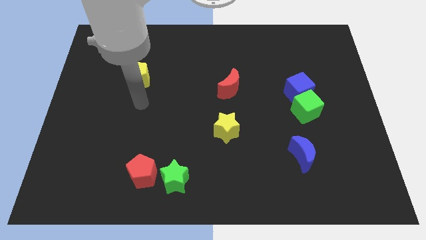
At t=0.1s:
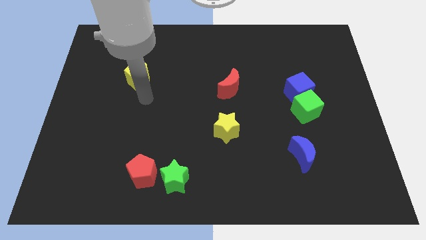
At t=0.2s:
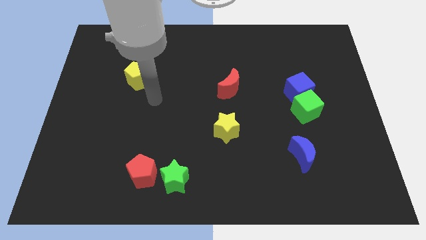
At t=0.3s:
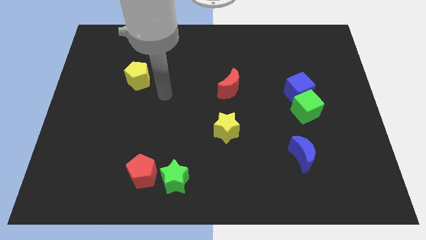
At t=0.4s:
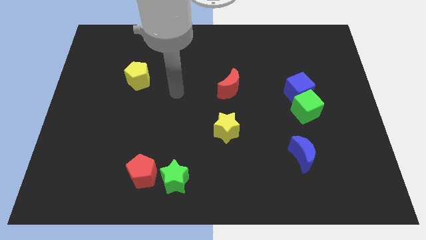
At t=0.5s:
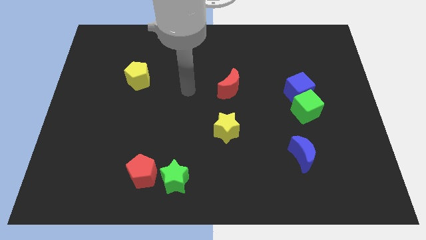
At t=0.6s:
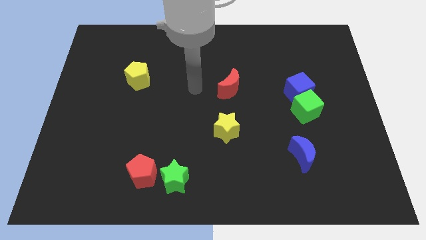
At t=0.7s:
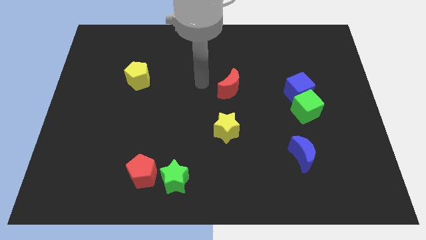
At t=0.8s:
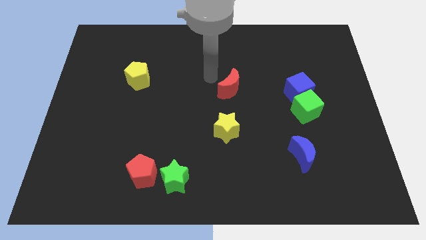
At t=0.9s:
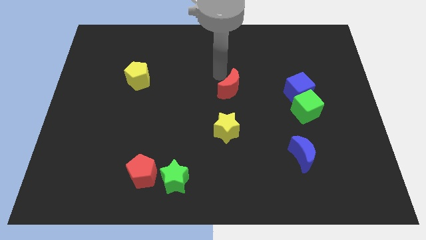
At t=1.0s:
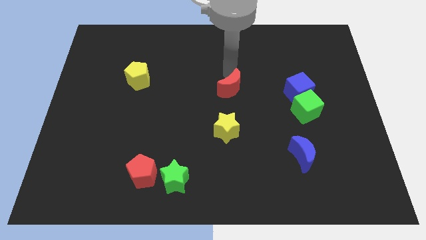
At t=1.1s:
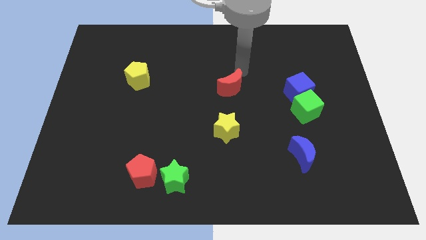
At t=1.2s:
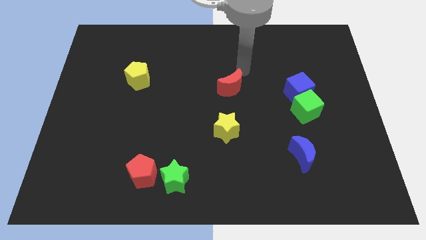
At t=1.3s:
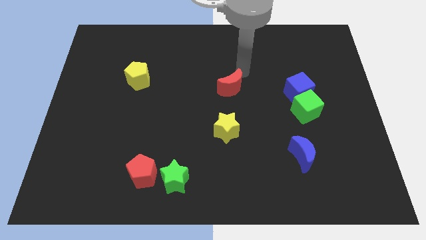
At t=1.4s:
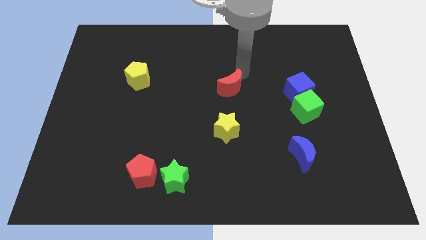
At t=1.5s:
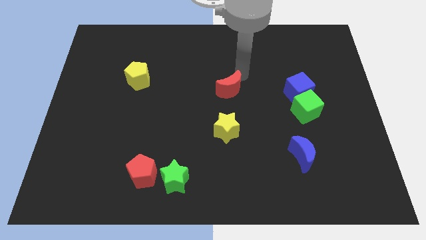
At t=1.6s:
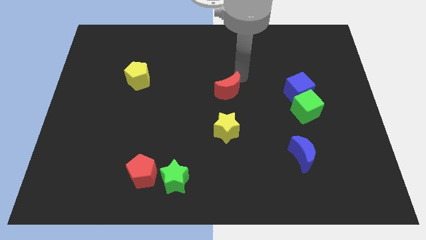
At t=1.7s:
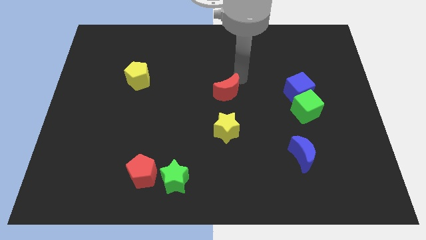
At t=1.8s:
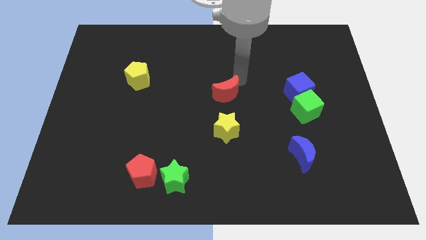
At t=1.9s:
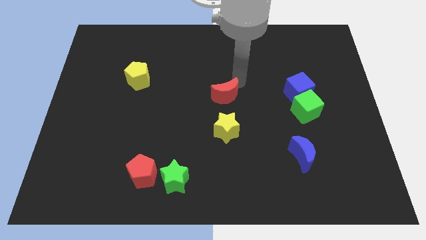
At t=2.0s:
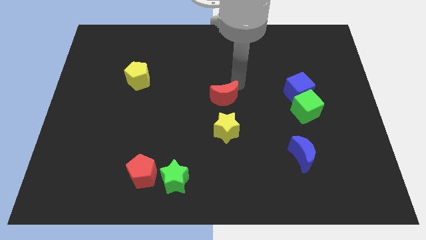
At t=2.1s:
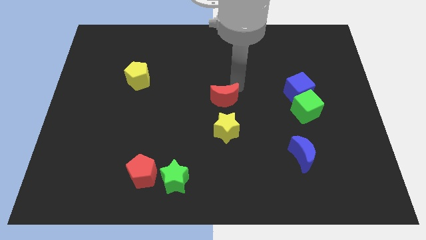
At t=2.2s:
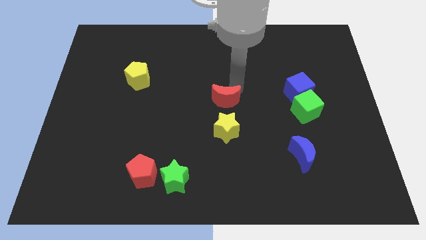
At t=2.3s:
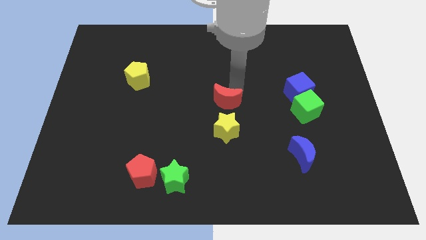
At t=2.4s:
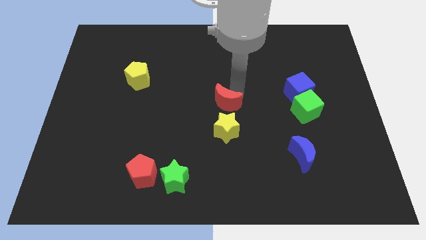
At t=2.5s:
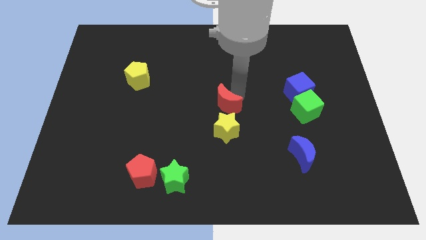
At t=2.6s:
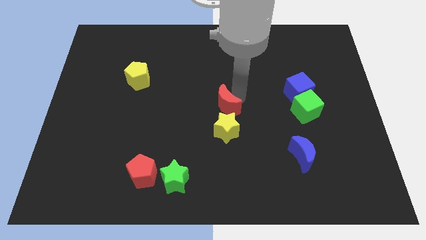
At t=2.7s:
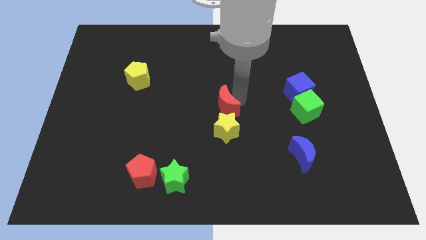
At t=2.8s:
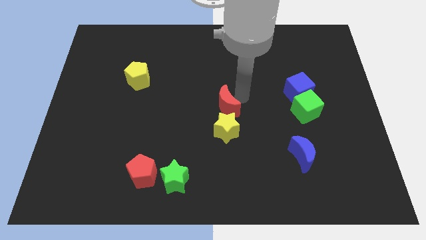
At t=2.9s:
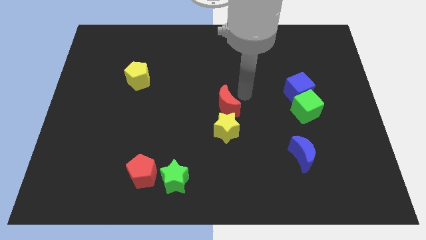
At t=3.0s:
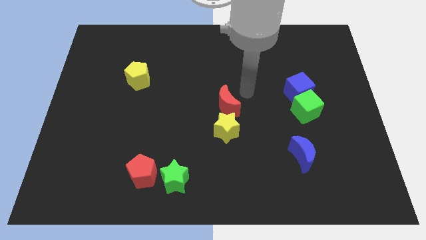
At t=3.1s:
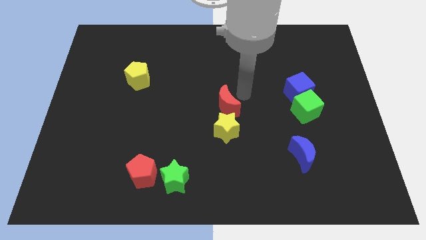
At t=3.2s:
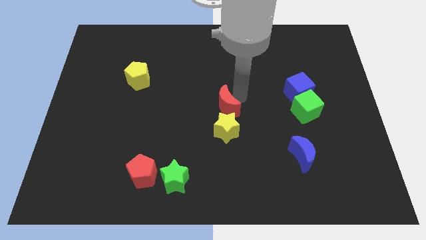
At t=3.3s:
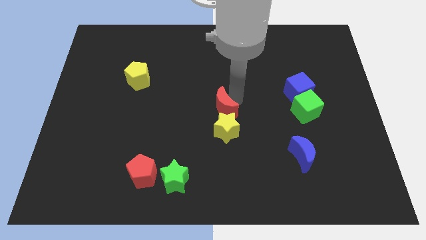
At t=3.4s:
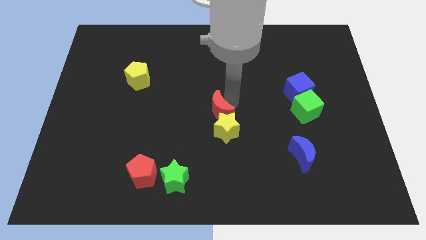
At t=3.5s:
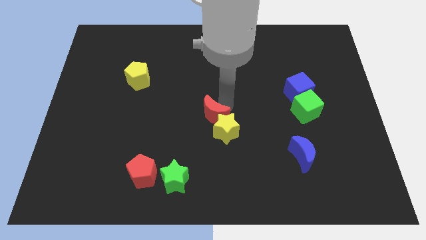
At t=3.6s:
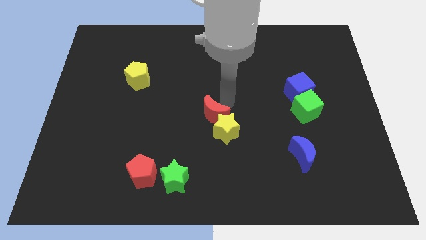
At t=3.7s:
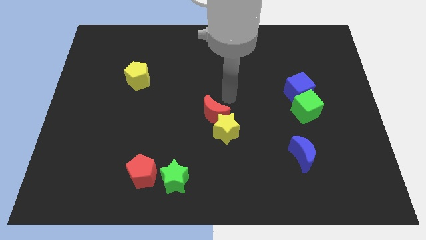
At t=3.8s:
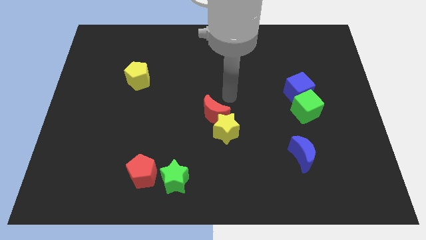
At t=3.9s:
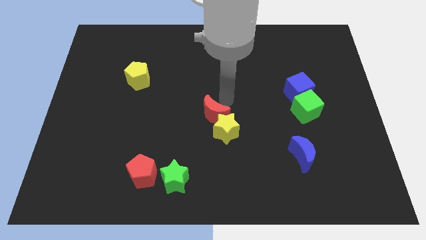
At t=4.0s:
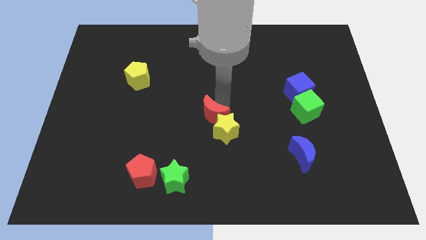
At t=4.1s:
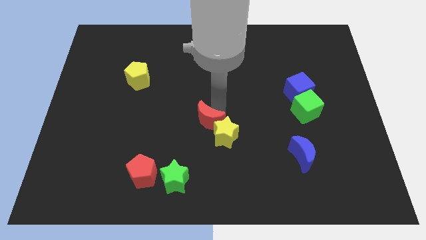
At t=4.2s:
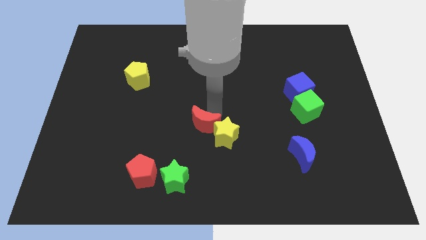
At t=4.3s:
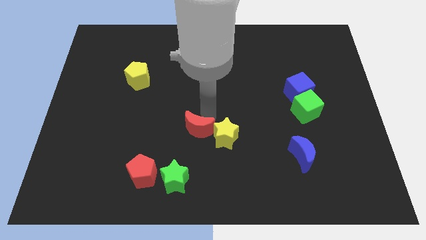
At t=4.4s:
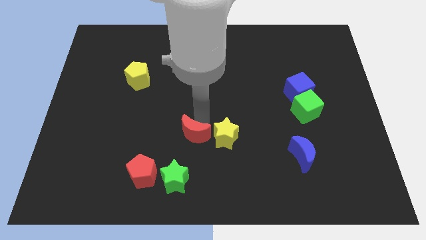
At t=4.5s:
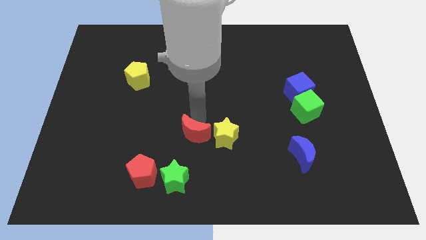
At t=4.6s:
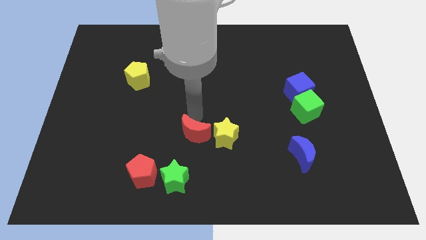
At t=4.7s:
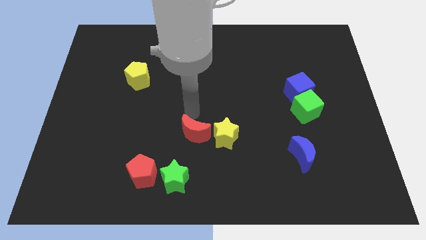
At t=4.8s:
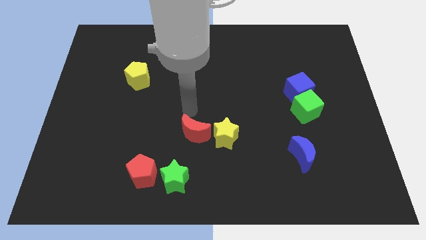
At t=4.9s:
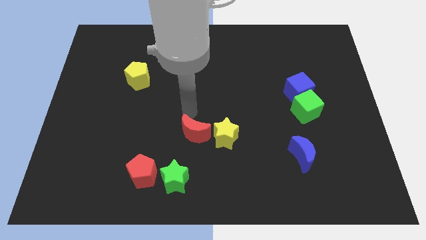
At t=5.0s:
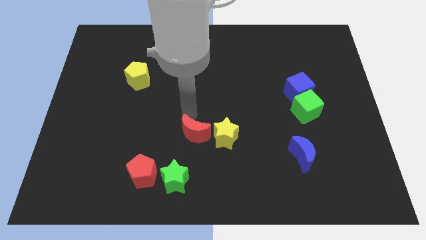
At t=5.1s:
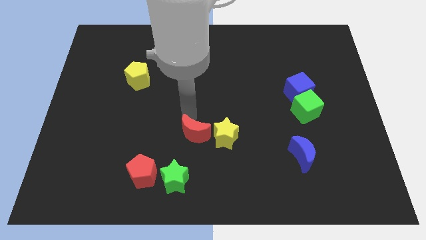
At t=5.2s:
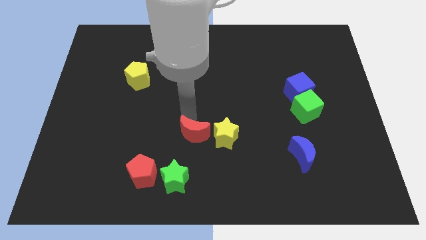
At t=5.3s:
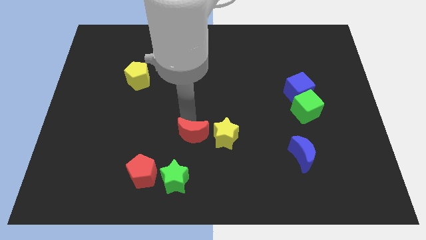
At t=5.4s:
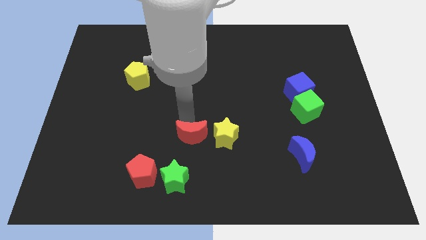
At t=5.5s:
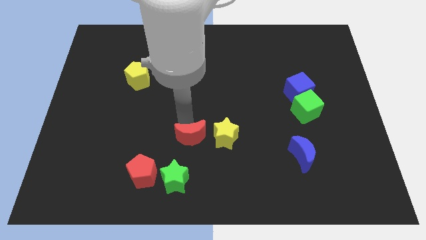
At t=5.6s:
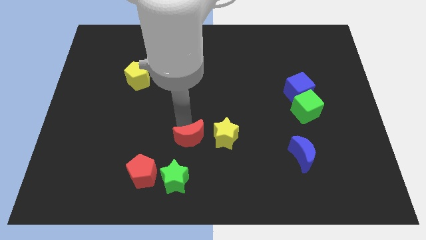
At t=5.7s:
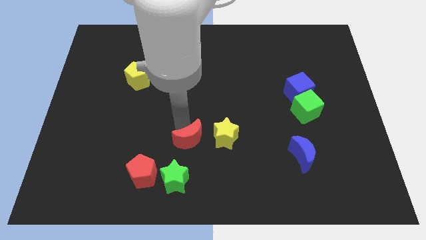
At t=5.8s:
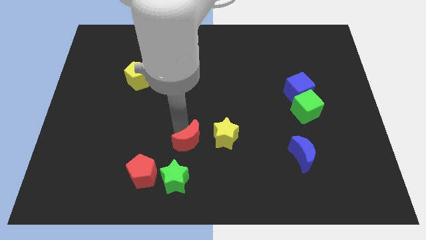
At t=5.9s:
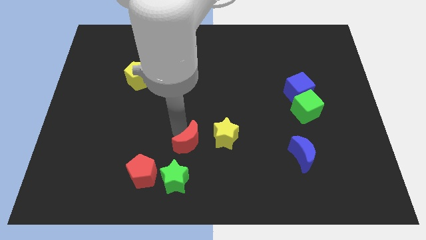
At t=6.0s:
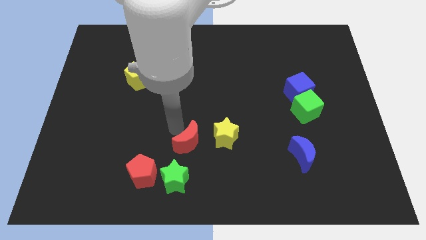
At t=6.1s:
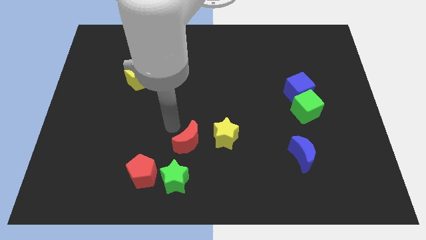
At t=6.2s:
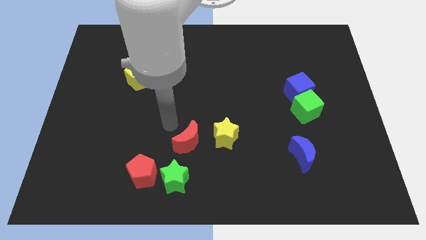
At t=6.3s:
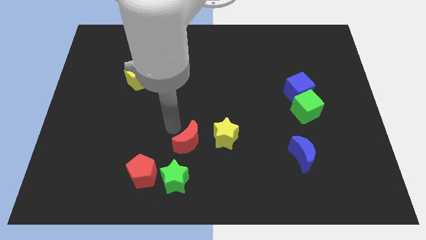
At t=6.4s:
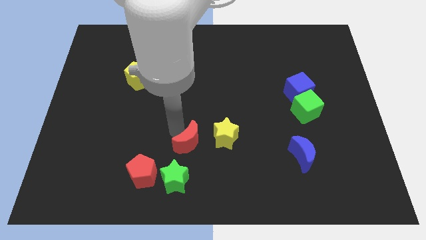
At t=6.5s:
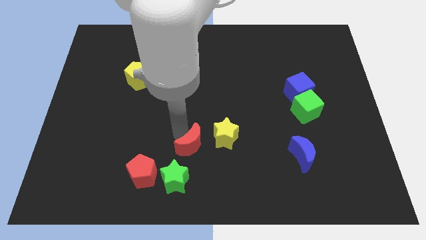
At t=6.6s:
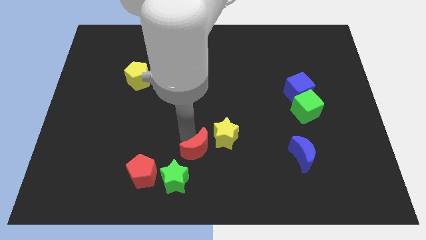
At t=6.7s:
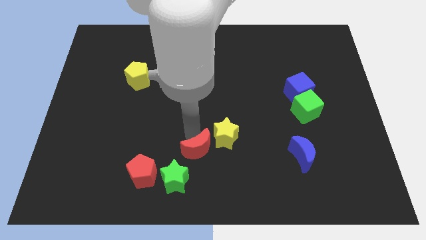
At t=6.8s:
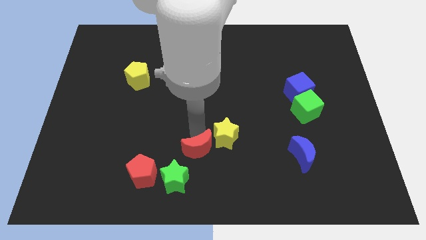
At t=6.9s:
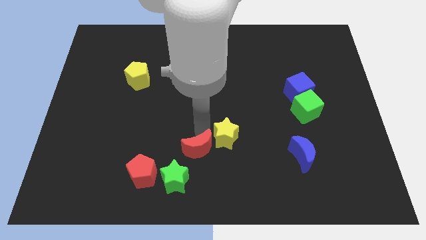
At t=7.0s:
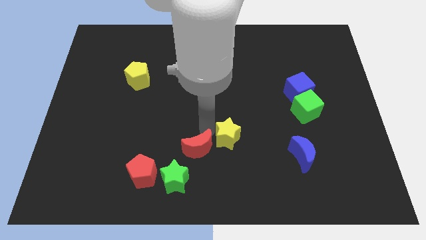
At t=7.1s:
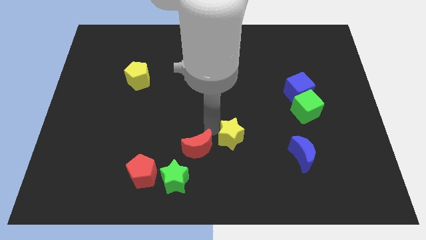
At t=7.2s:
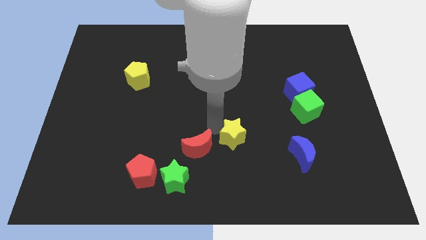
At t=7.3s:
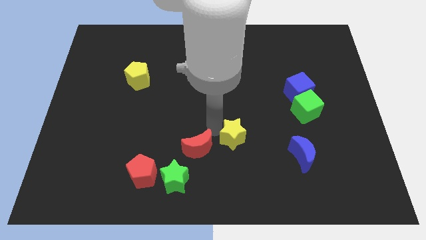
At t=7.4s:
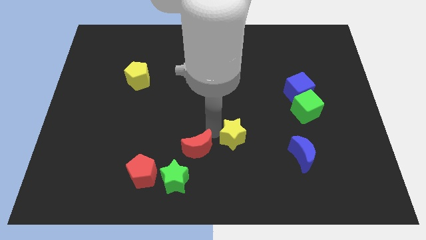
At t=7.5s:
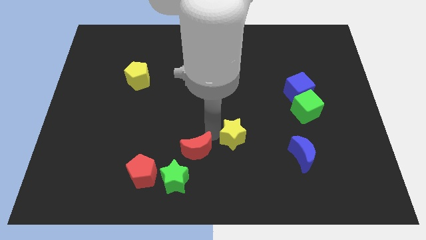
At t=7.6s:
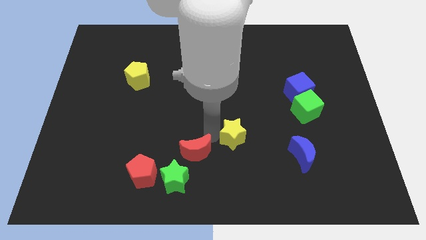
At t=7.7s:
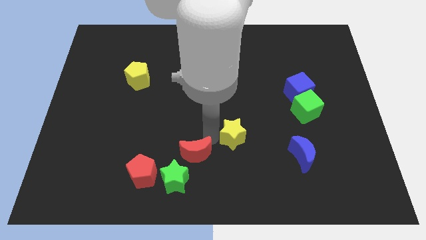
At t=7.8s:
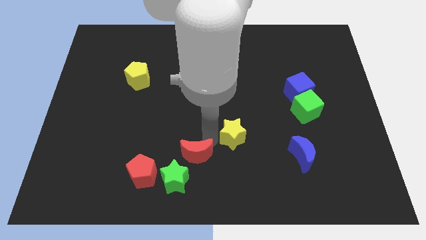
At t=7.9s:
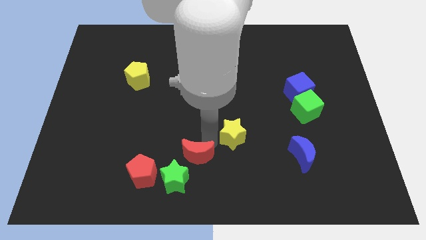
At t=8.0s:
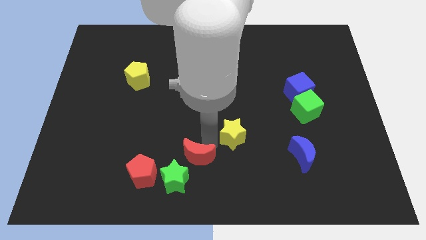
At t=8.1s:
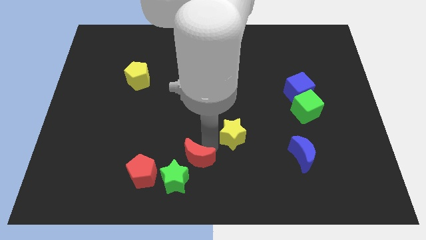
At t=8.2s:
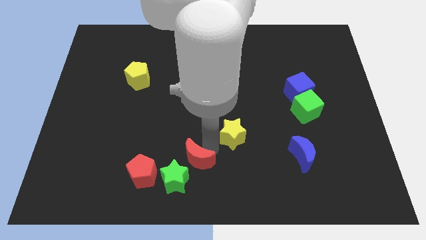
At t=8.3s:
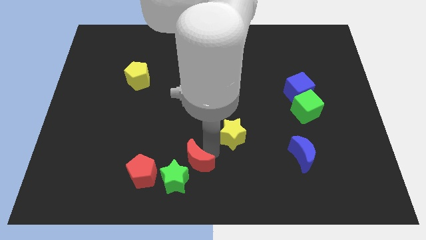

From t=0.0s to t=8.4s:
slide the red moon towards the green star
